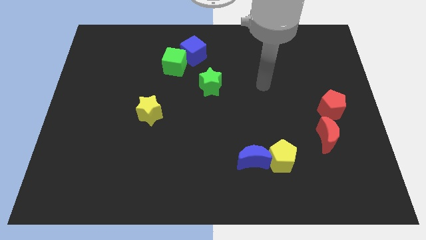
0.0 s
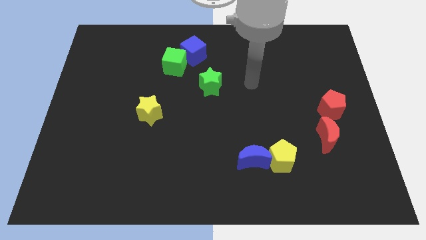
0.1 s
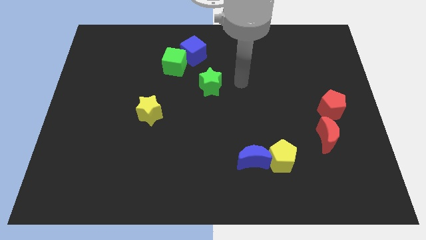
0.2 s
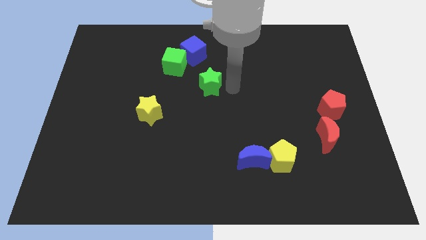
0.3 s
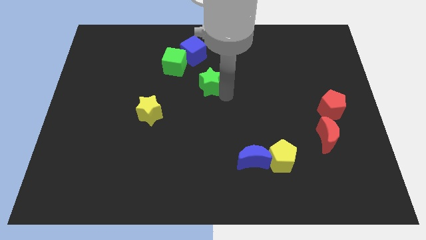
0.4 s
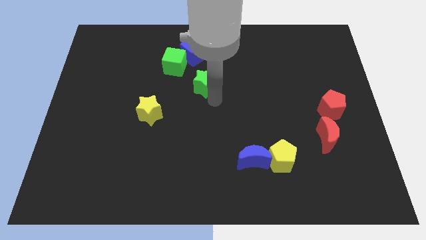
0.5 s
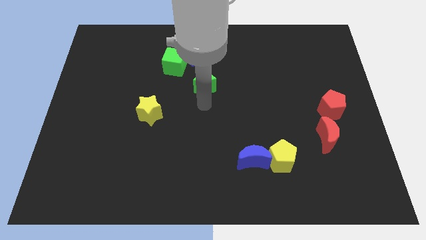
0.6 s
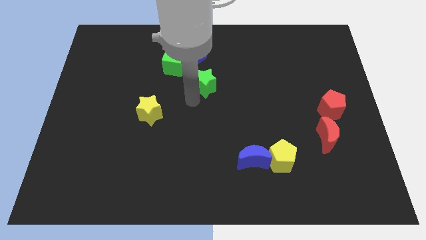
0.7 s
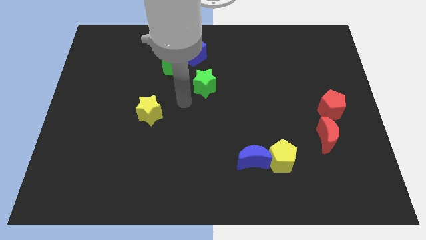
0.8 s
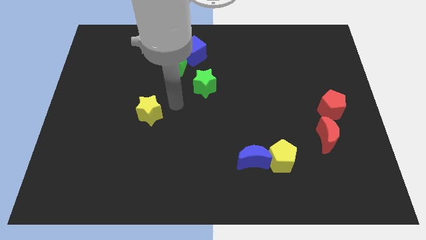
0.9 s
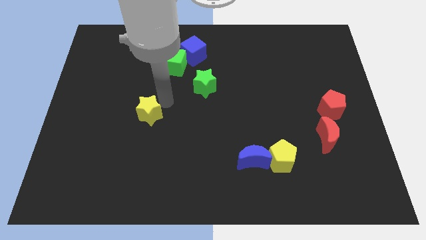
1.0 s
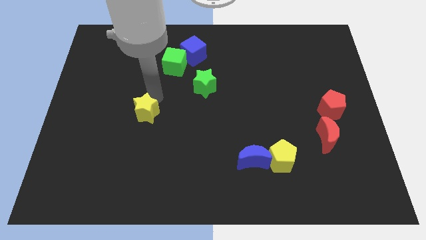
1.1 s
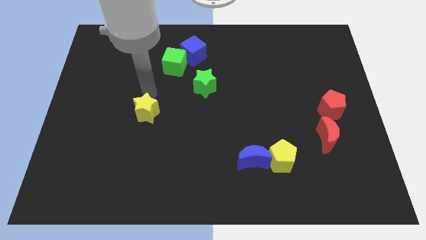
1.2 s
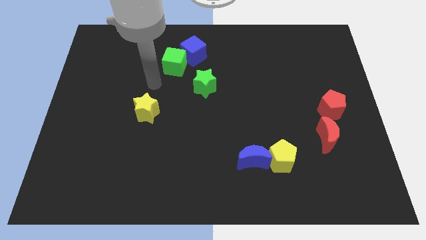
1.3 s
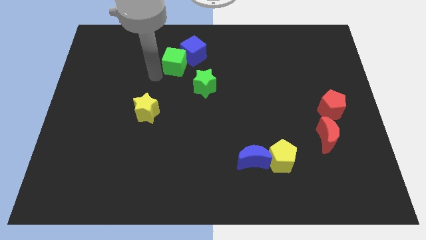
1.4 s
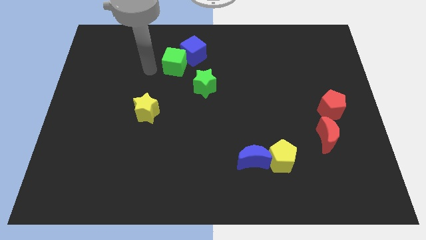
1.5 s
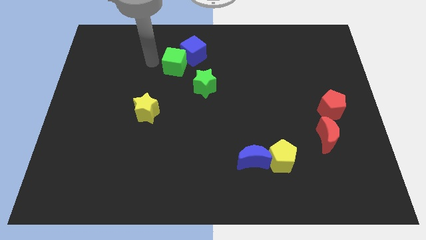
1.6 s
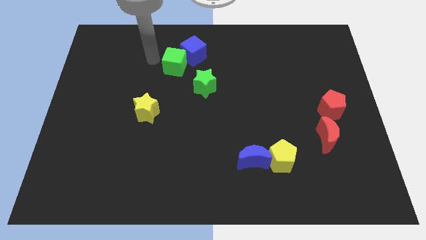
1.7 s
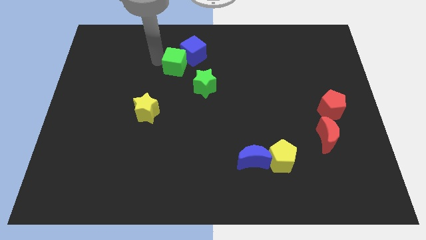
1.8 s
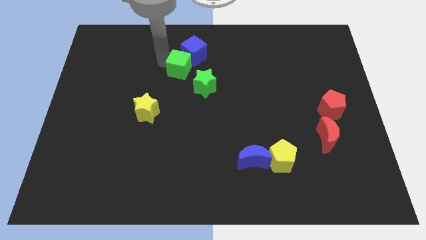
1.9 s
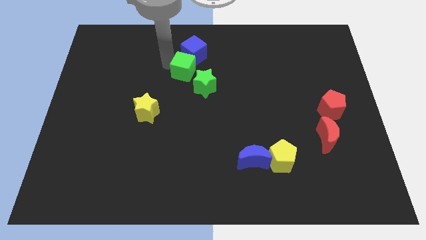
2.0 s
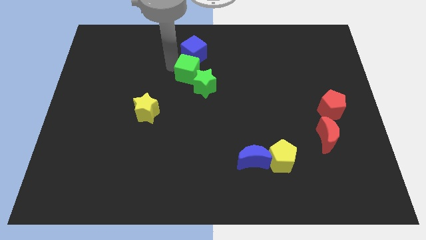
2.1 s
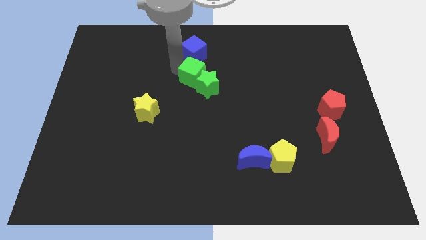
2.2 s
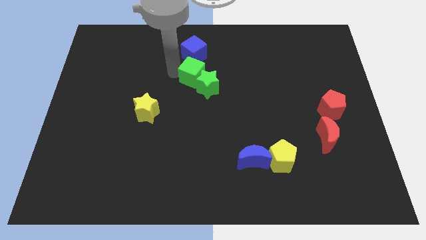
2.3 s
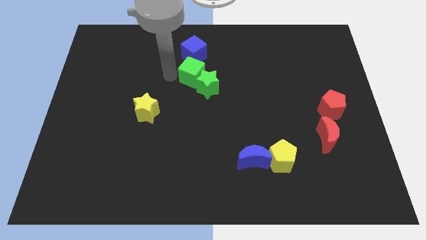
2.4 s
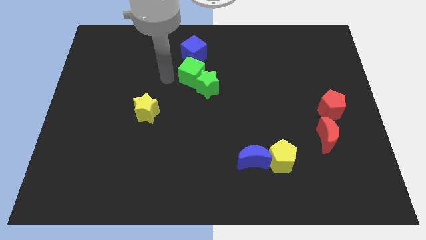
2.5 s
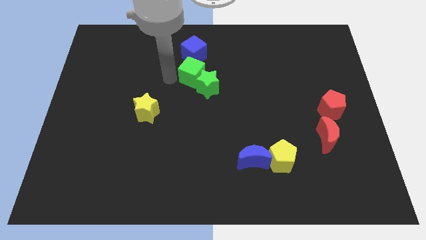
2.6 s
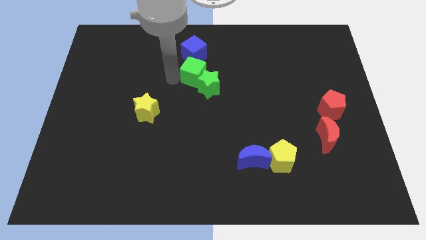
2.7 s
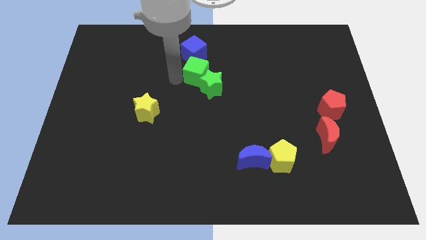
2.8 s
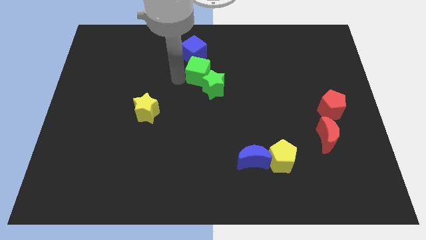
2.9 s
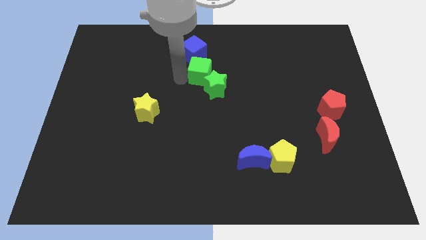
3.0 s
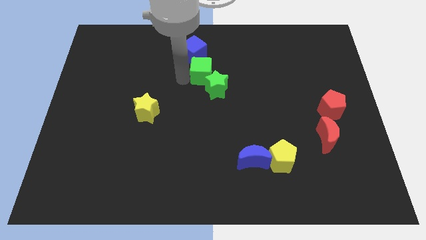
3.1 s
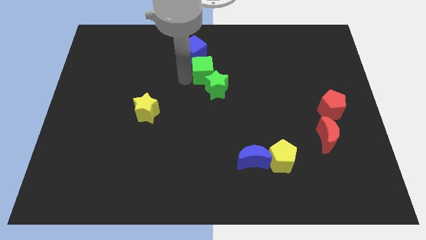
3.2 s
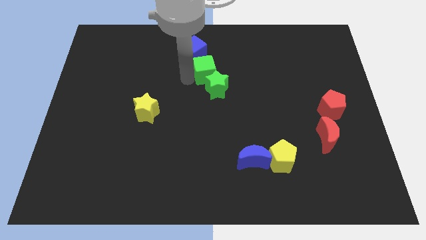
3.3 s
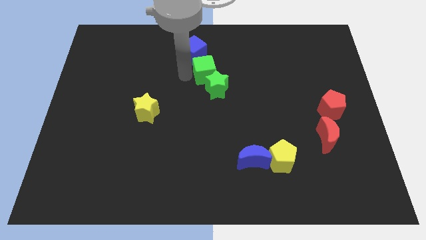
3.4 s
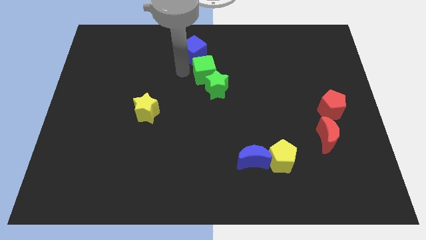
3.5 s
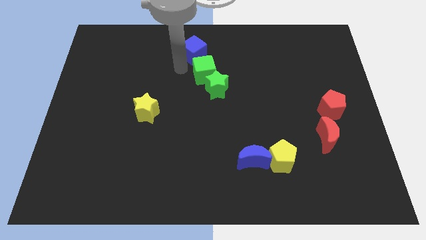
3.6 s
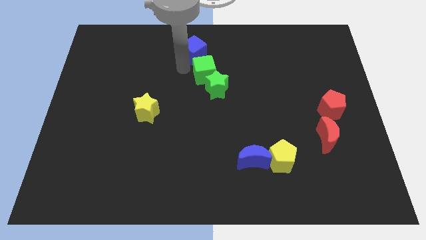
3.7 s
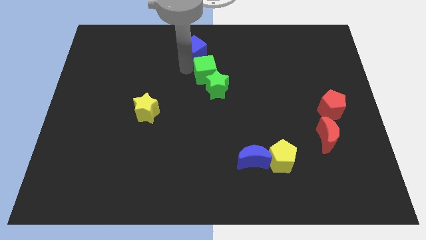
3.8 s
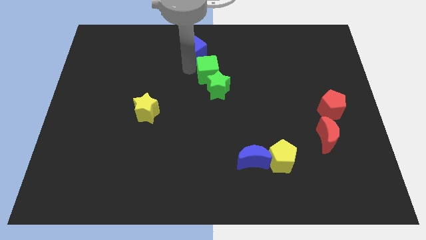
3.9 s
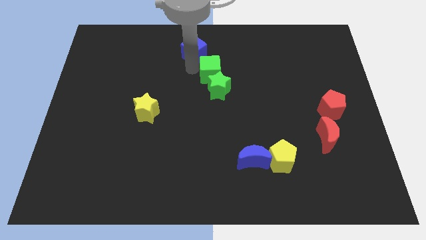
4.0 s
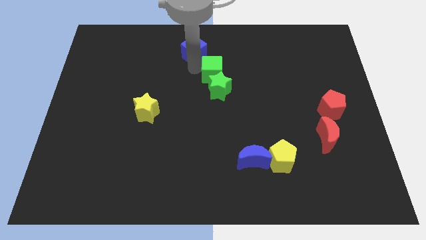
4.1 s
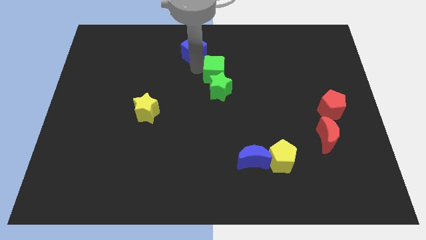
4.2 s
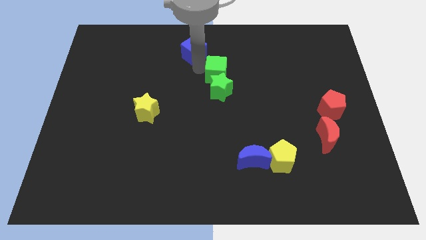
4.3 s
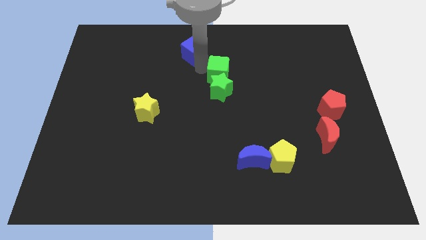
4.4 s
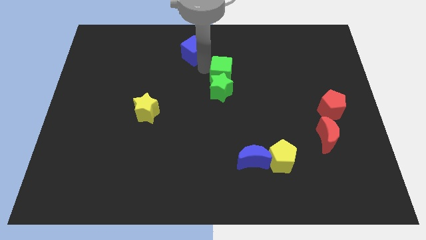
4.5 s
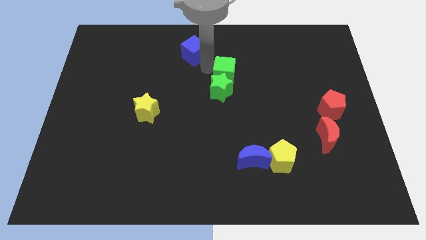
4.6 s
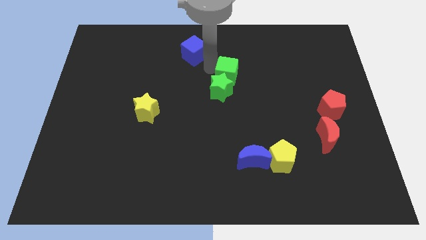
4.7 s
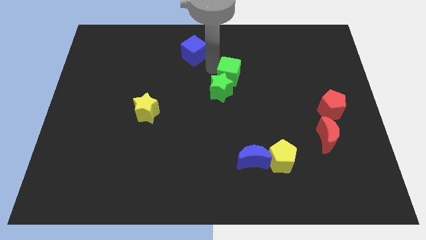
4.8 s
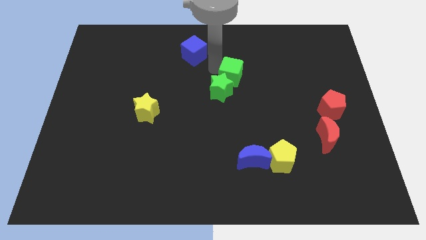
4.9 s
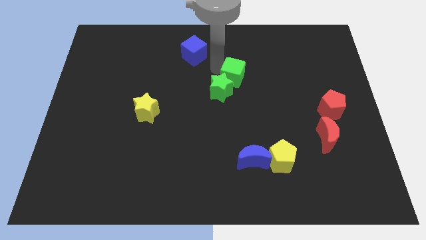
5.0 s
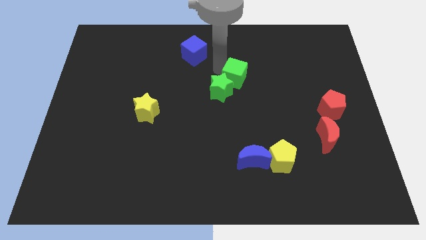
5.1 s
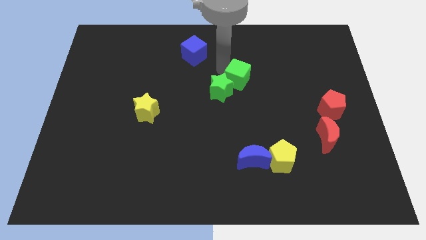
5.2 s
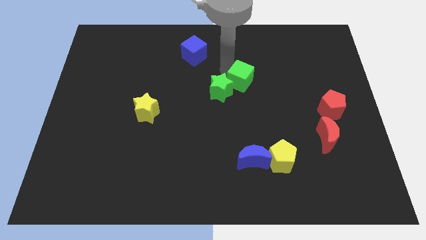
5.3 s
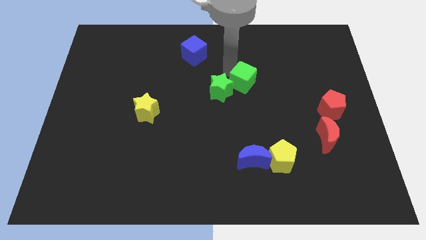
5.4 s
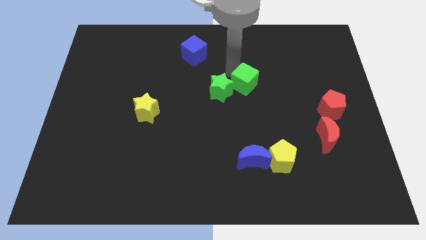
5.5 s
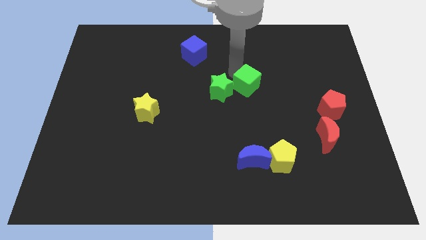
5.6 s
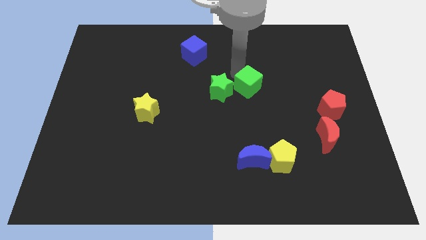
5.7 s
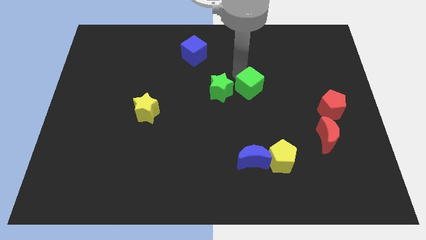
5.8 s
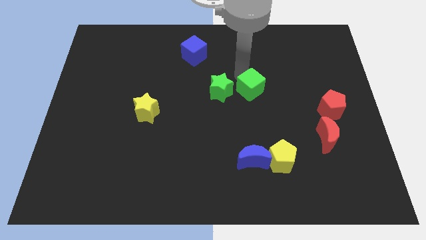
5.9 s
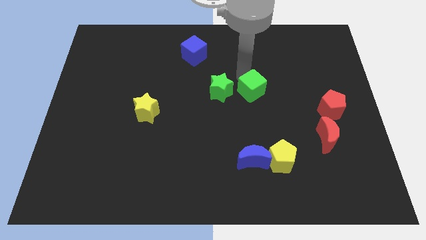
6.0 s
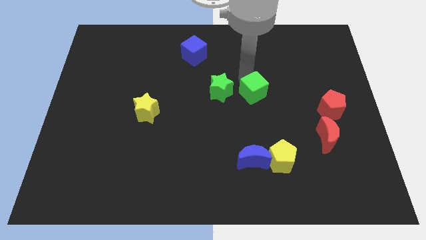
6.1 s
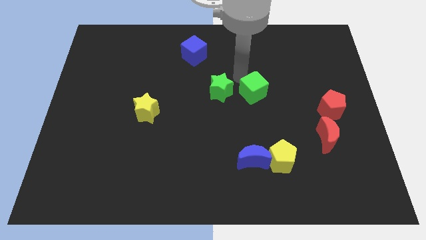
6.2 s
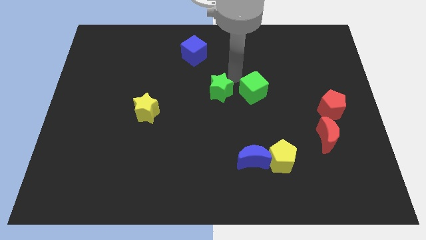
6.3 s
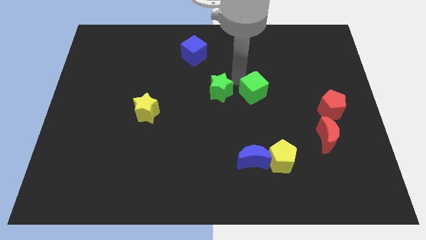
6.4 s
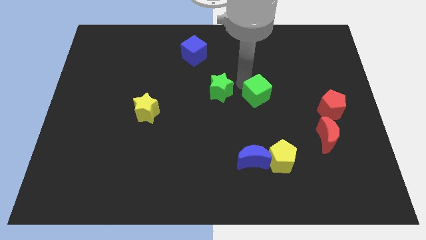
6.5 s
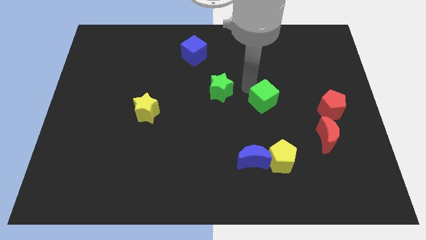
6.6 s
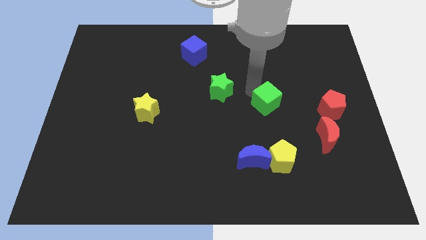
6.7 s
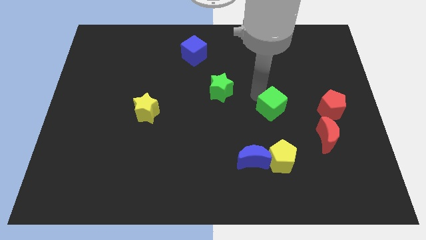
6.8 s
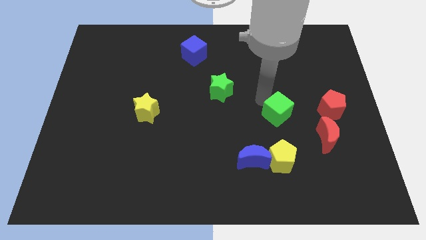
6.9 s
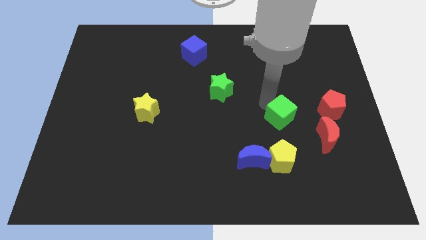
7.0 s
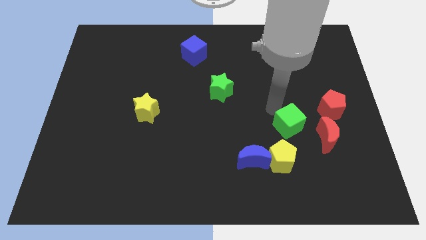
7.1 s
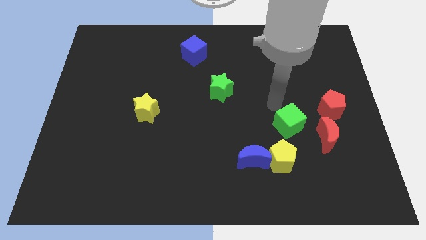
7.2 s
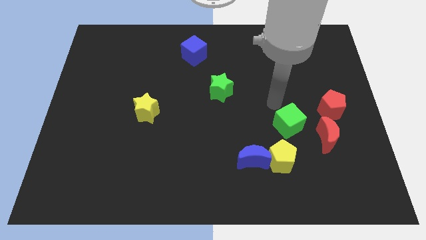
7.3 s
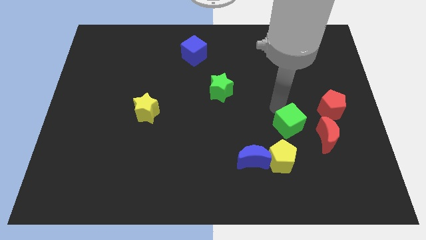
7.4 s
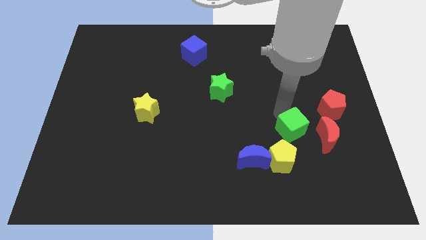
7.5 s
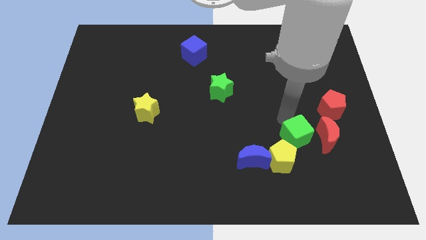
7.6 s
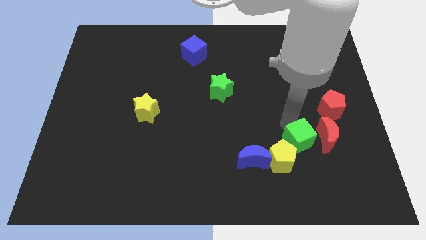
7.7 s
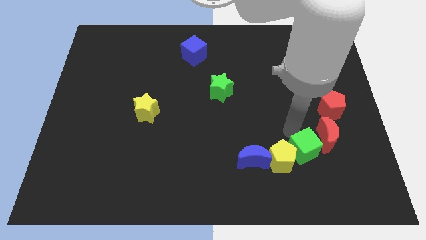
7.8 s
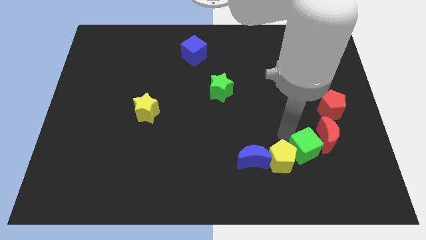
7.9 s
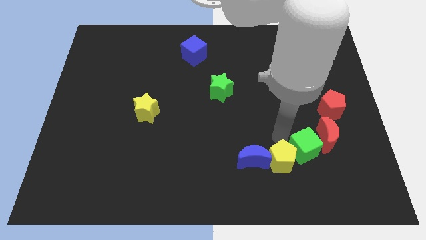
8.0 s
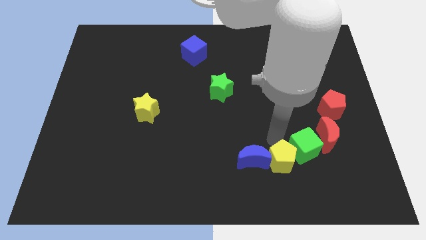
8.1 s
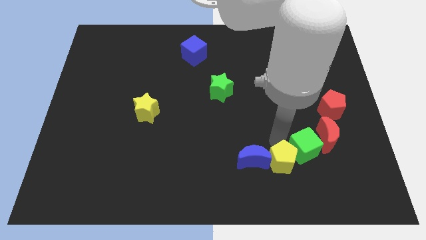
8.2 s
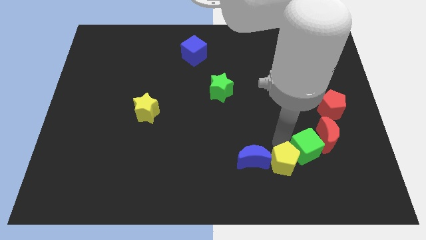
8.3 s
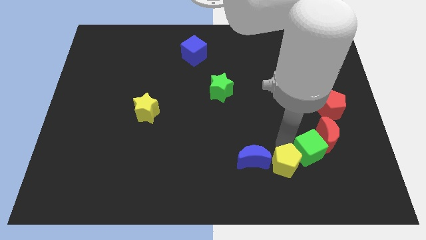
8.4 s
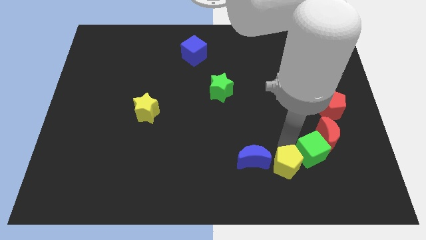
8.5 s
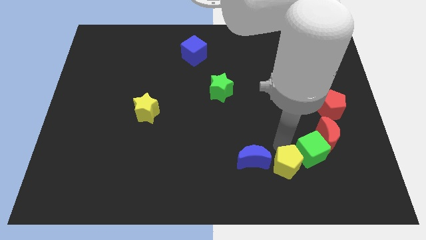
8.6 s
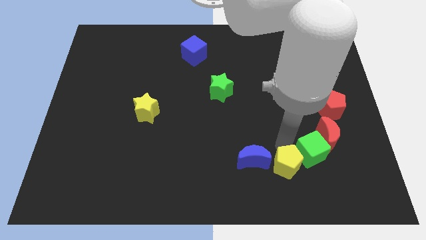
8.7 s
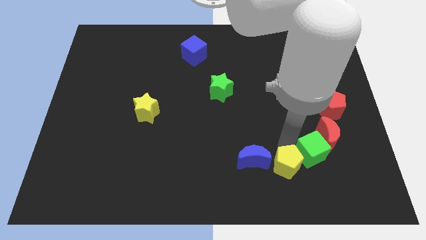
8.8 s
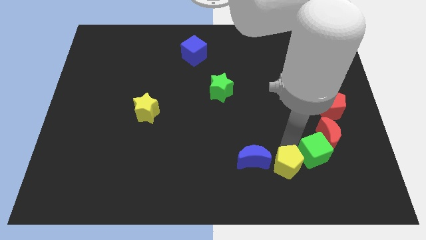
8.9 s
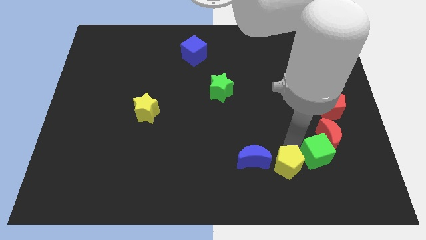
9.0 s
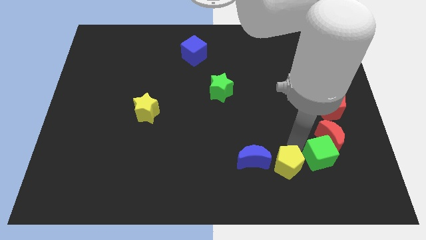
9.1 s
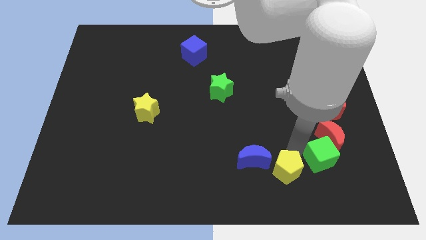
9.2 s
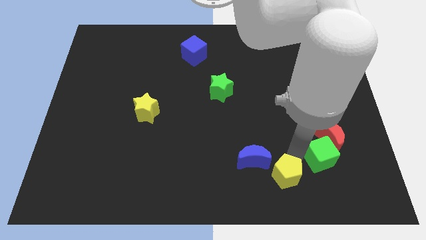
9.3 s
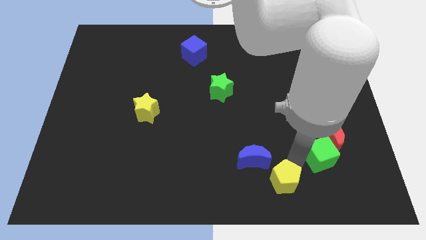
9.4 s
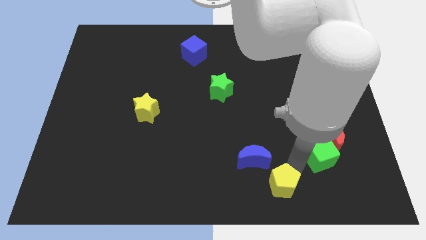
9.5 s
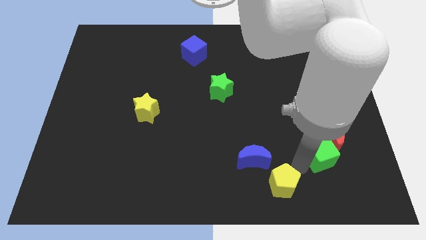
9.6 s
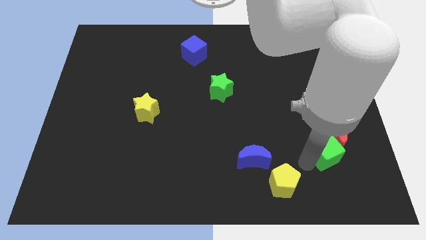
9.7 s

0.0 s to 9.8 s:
push the green cube to the bottom of the red pentagon
